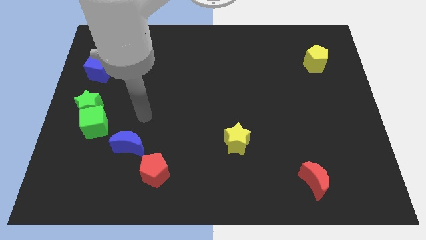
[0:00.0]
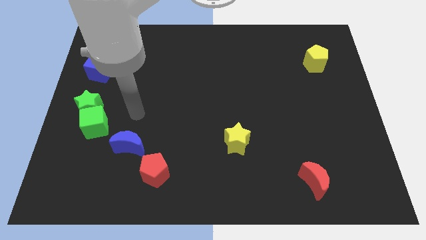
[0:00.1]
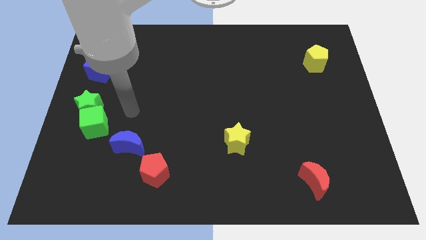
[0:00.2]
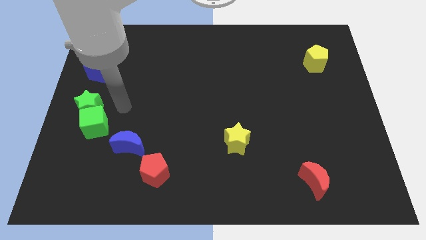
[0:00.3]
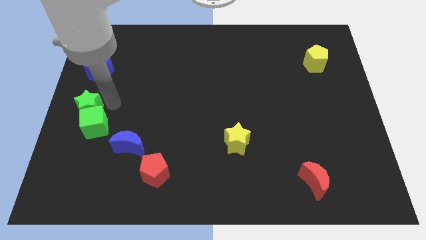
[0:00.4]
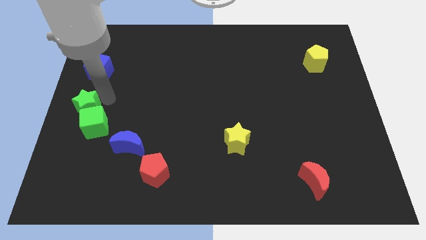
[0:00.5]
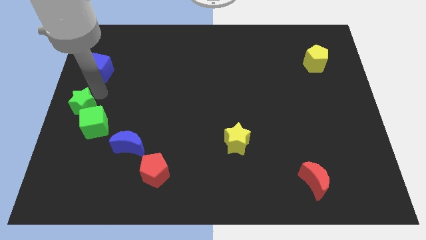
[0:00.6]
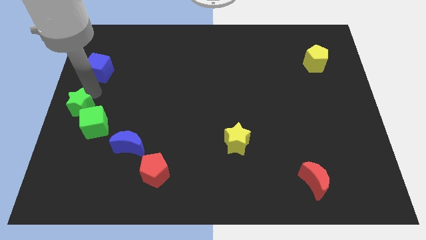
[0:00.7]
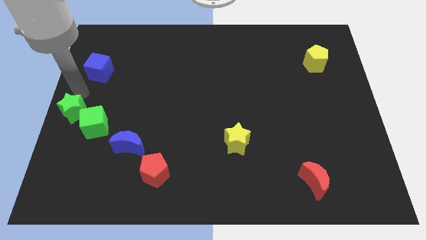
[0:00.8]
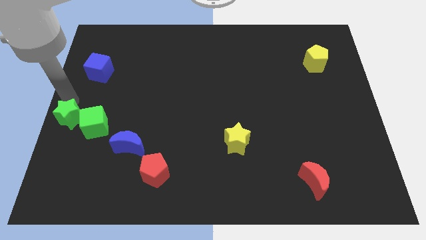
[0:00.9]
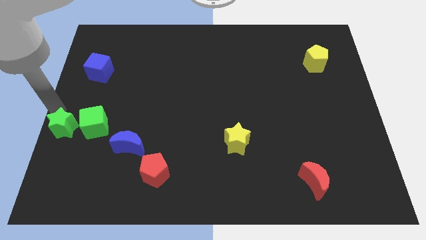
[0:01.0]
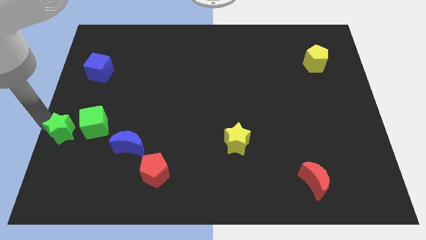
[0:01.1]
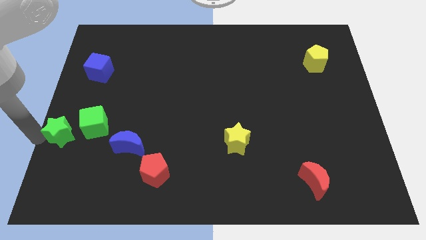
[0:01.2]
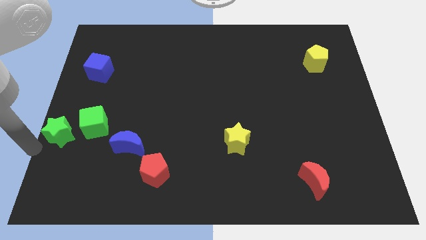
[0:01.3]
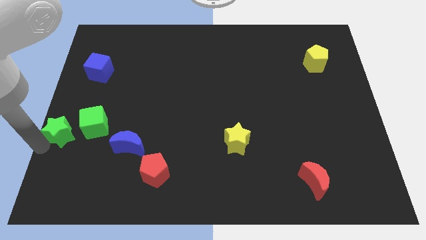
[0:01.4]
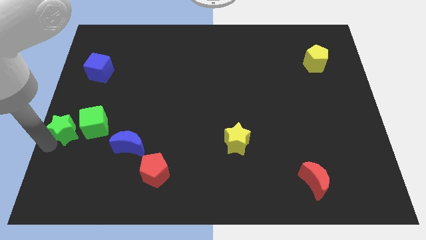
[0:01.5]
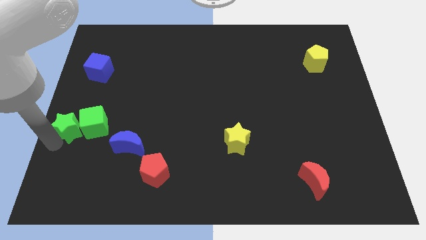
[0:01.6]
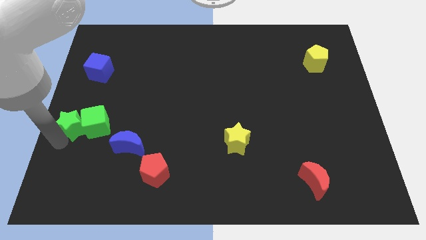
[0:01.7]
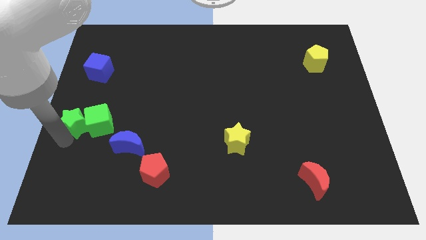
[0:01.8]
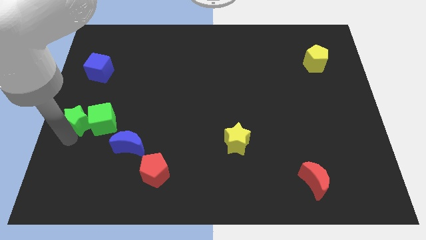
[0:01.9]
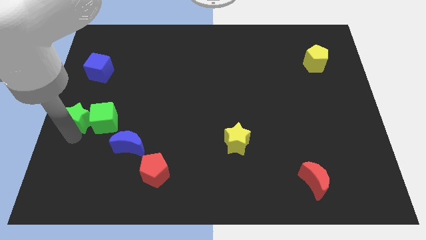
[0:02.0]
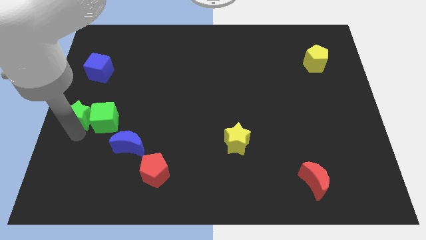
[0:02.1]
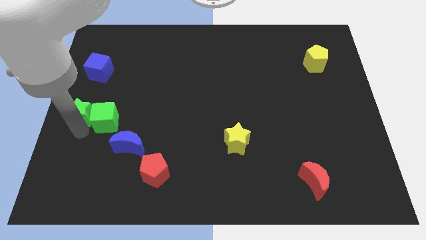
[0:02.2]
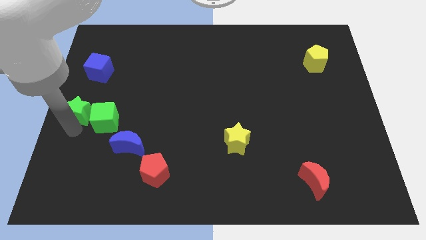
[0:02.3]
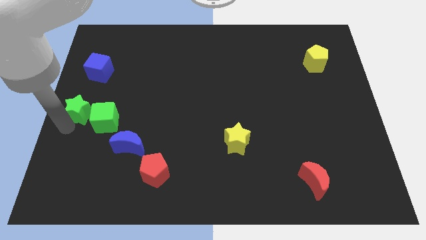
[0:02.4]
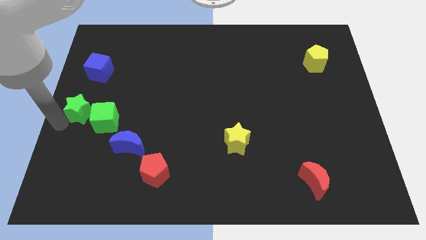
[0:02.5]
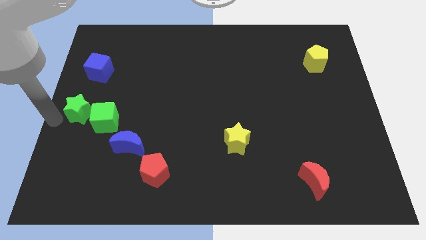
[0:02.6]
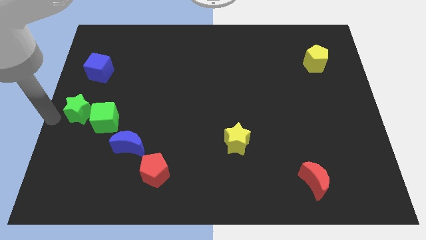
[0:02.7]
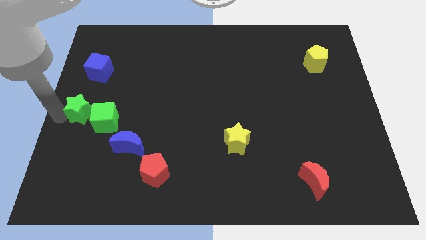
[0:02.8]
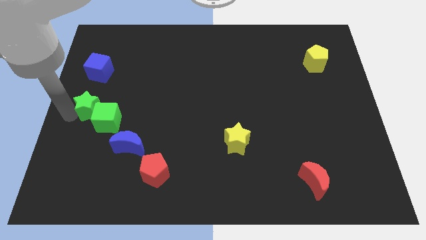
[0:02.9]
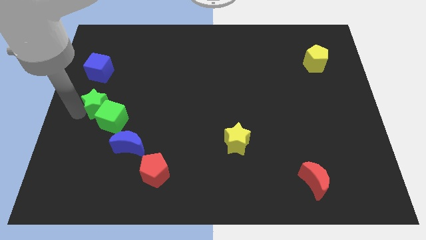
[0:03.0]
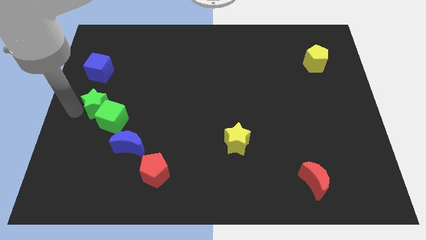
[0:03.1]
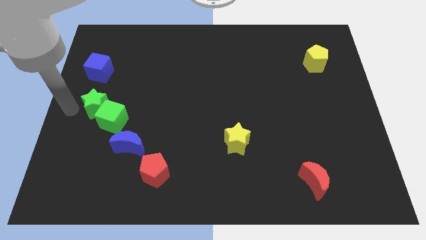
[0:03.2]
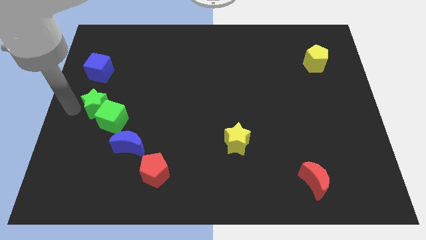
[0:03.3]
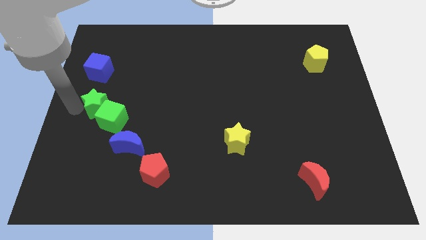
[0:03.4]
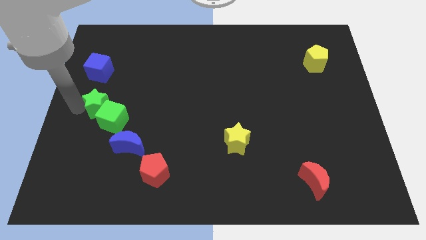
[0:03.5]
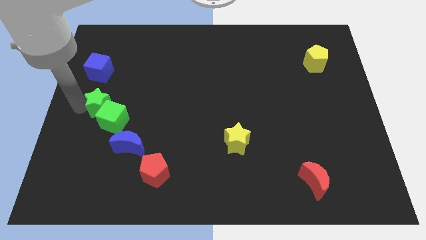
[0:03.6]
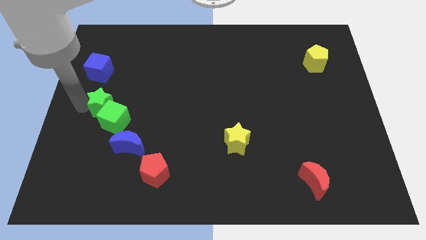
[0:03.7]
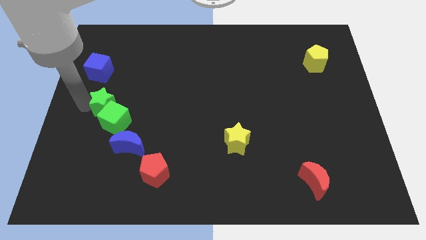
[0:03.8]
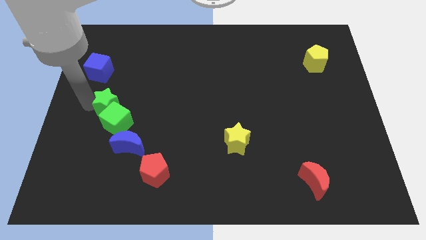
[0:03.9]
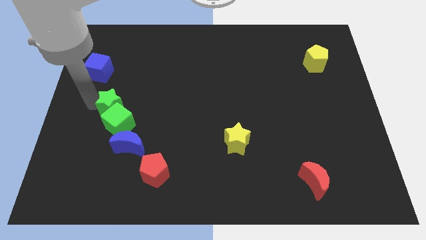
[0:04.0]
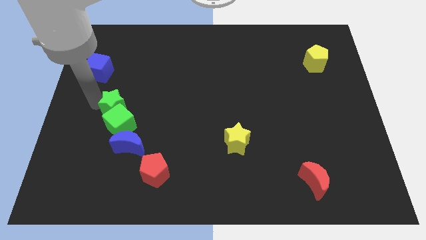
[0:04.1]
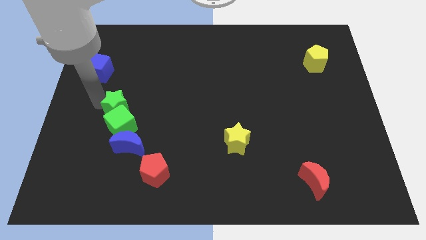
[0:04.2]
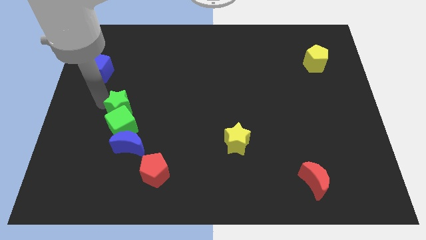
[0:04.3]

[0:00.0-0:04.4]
slightly move the green star to the right

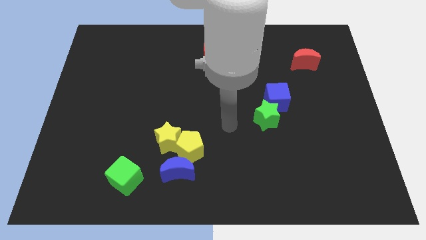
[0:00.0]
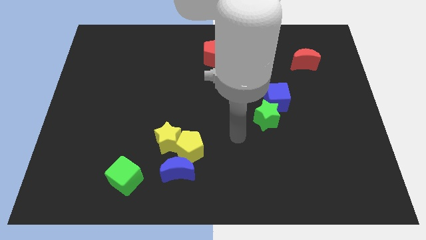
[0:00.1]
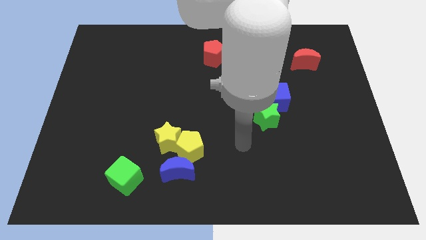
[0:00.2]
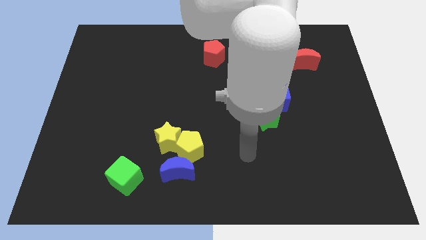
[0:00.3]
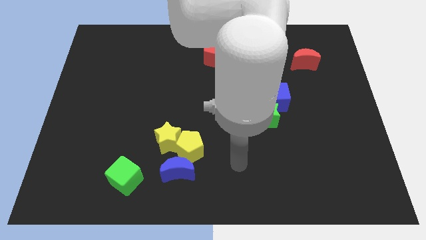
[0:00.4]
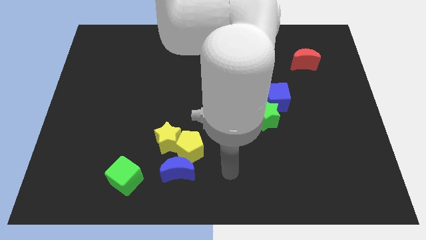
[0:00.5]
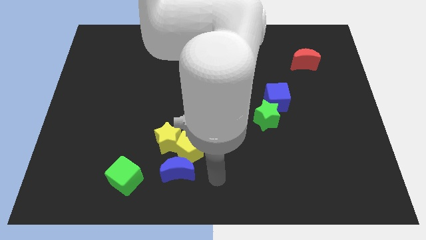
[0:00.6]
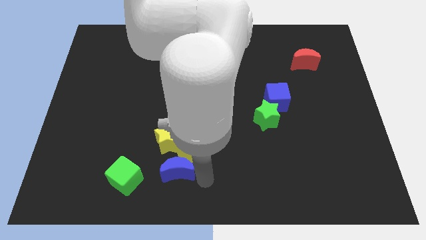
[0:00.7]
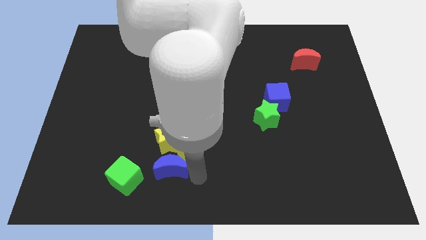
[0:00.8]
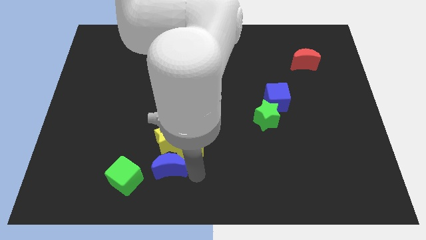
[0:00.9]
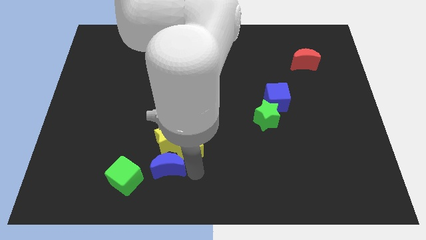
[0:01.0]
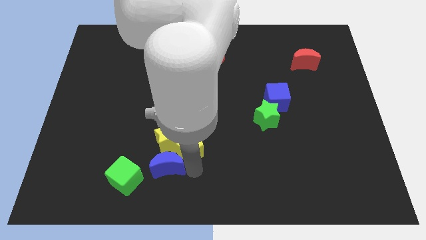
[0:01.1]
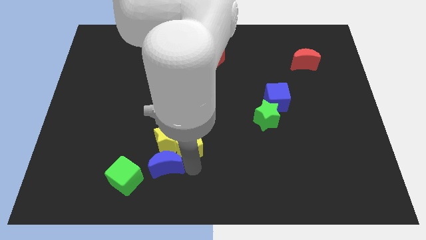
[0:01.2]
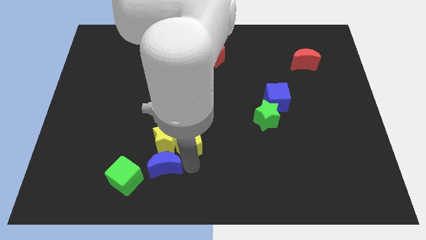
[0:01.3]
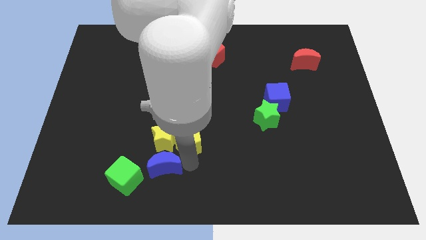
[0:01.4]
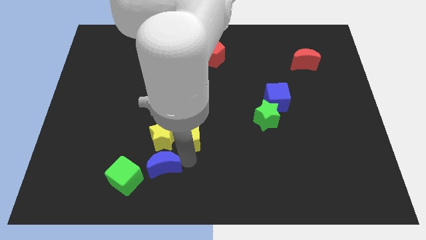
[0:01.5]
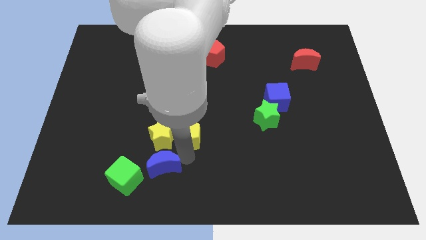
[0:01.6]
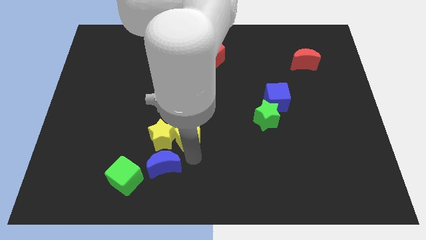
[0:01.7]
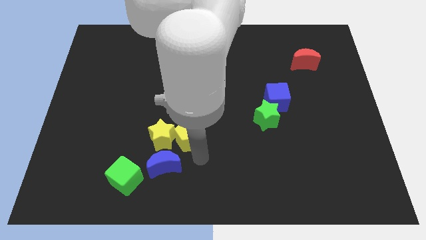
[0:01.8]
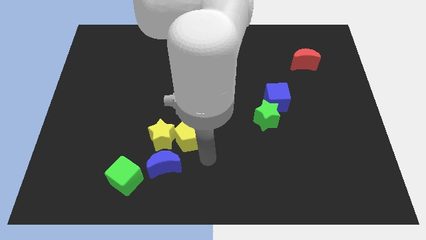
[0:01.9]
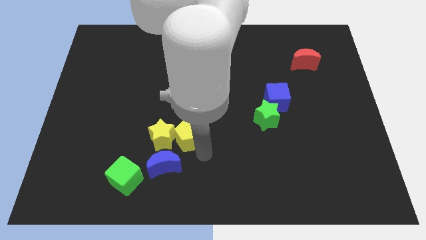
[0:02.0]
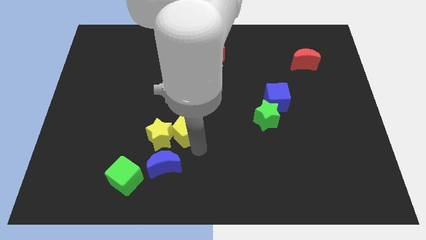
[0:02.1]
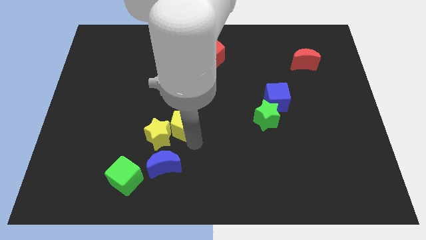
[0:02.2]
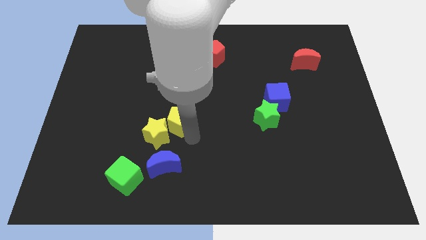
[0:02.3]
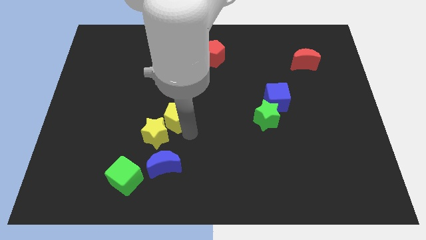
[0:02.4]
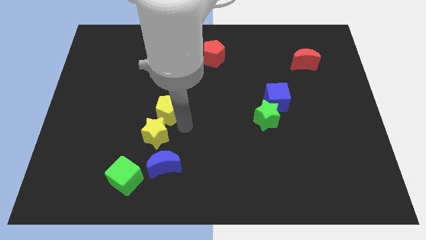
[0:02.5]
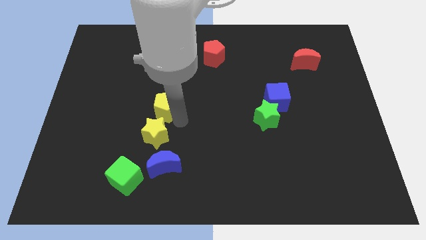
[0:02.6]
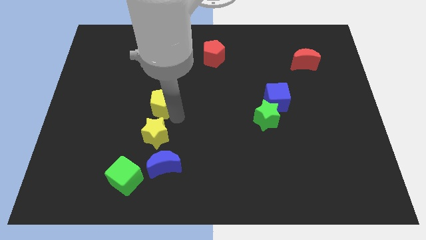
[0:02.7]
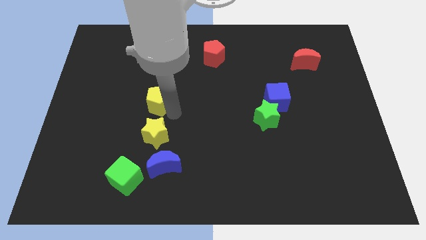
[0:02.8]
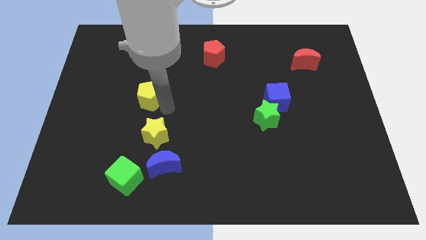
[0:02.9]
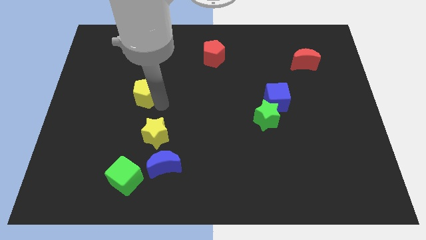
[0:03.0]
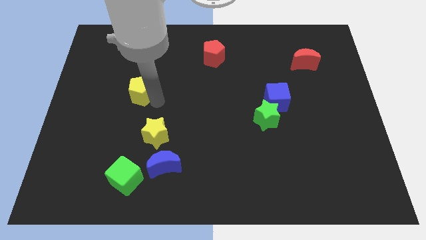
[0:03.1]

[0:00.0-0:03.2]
push the yellow pentagon upwards and to the left
